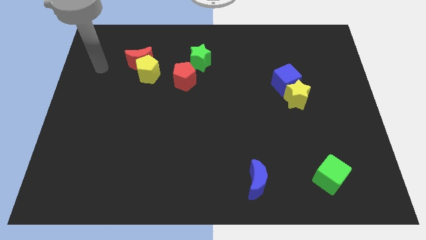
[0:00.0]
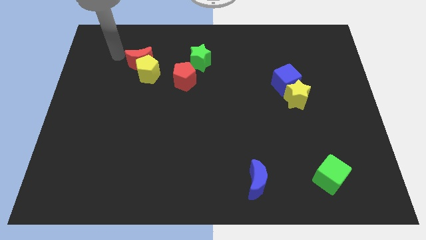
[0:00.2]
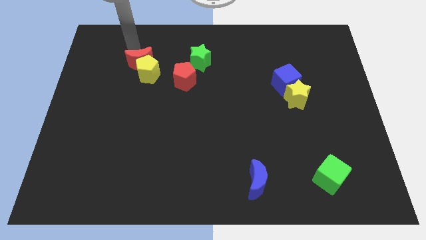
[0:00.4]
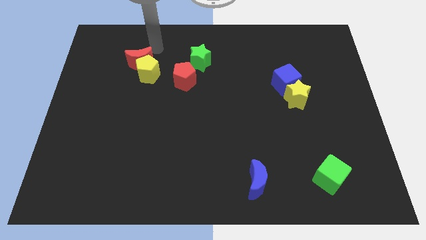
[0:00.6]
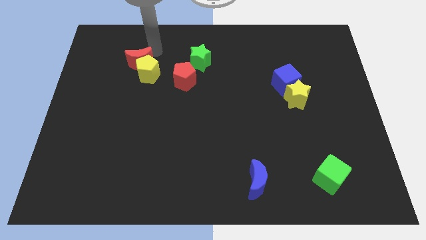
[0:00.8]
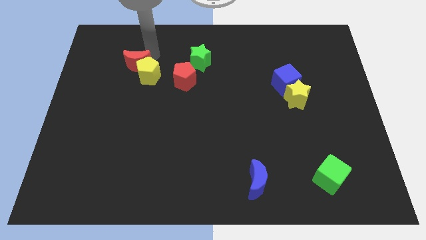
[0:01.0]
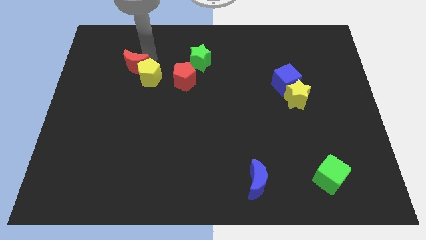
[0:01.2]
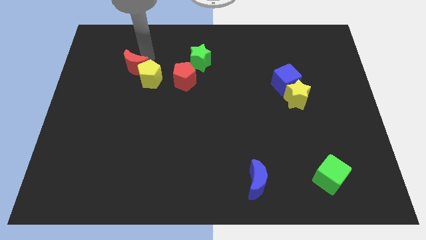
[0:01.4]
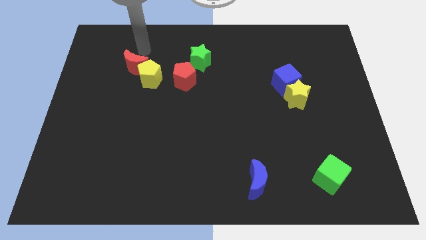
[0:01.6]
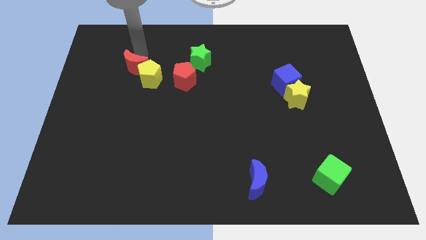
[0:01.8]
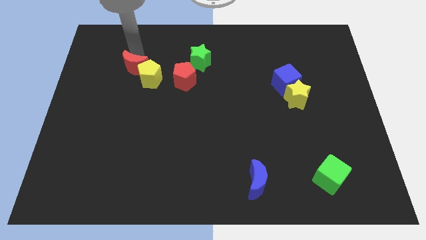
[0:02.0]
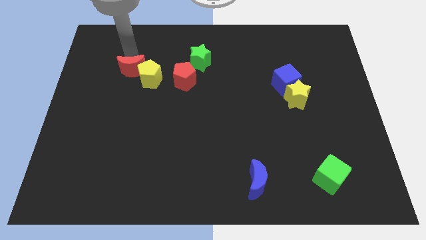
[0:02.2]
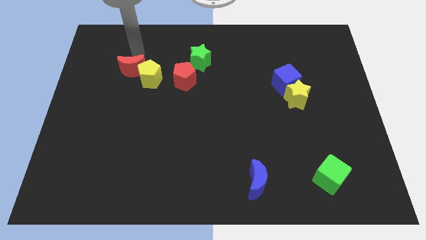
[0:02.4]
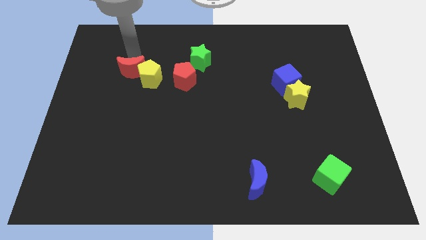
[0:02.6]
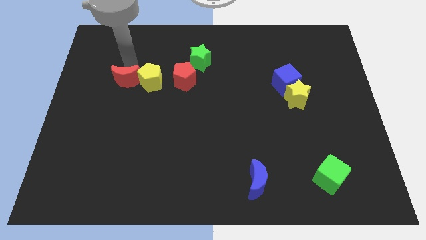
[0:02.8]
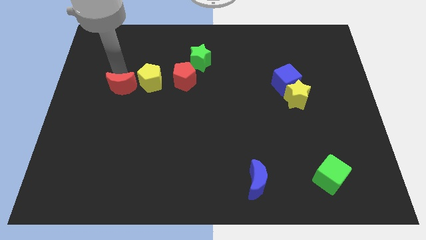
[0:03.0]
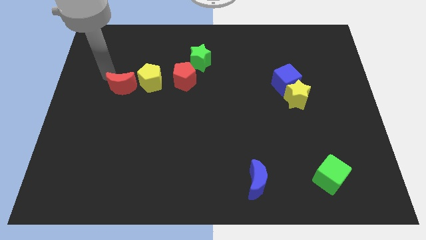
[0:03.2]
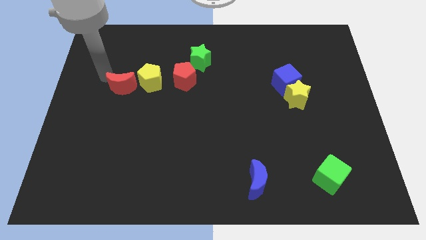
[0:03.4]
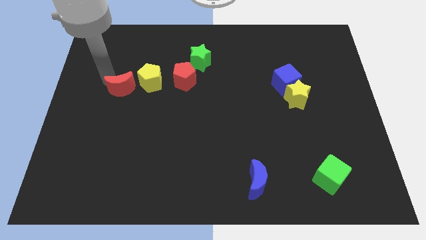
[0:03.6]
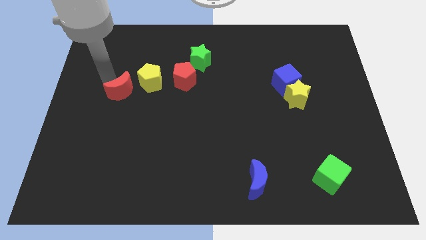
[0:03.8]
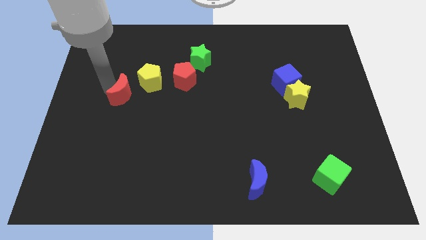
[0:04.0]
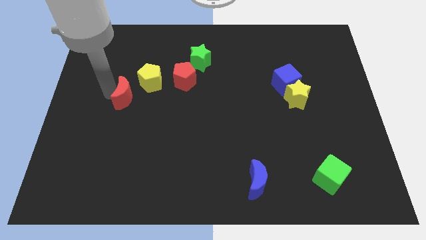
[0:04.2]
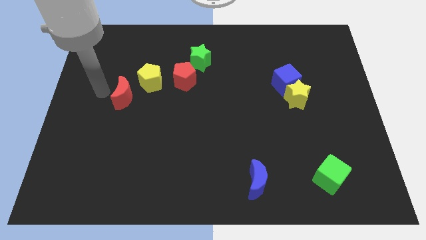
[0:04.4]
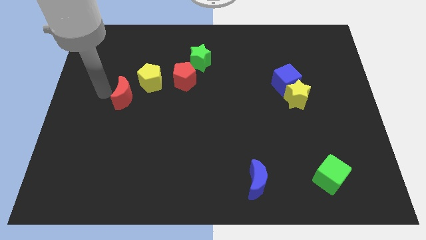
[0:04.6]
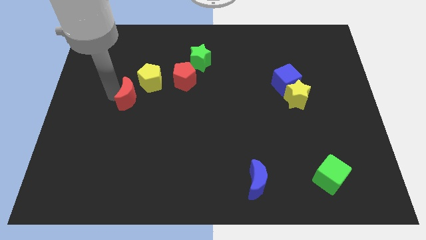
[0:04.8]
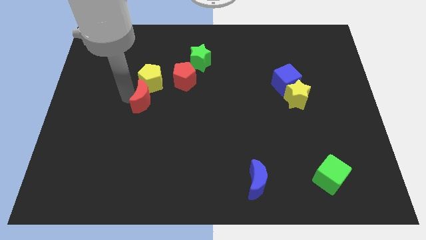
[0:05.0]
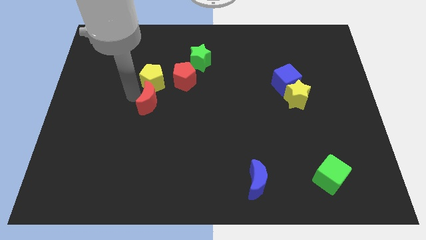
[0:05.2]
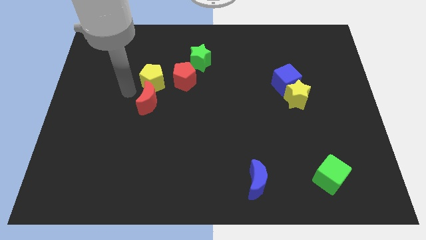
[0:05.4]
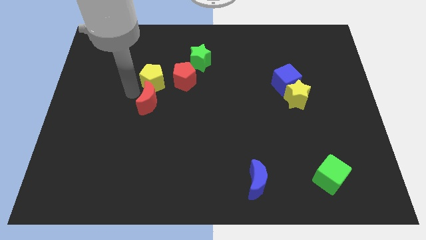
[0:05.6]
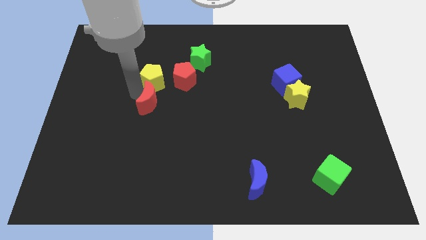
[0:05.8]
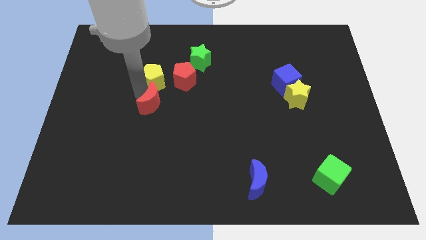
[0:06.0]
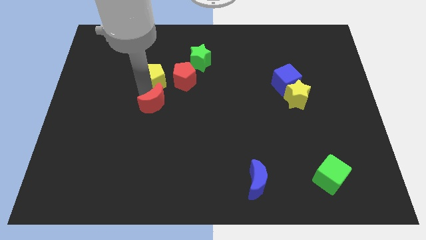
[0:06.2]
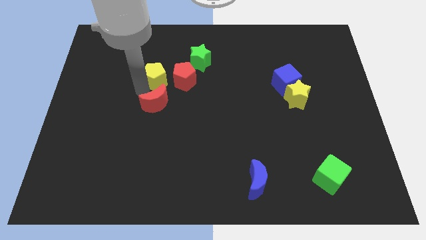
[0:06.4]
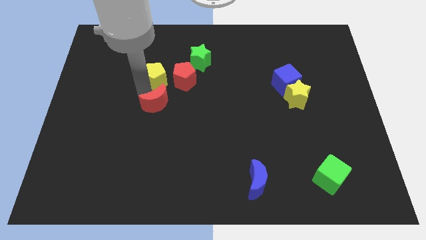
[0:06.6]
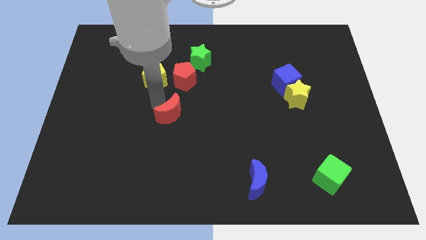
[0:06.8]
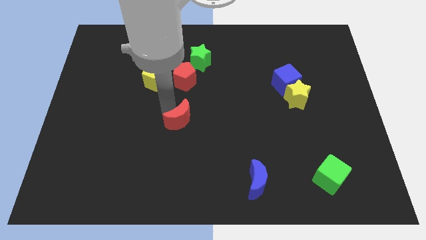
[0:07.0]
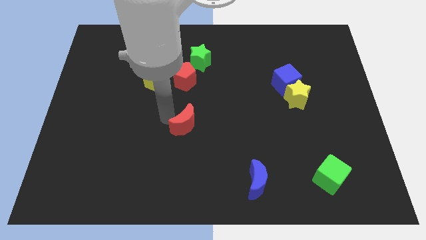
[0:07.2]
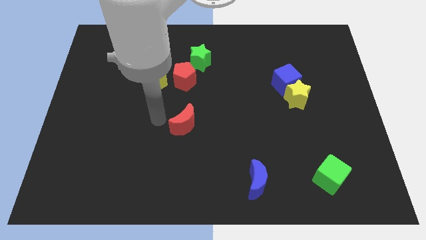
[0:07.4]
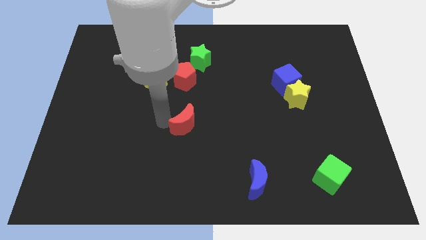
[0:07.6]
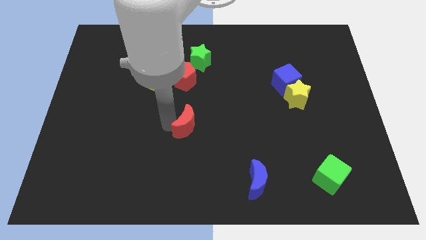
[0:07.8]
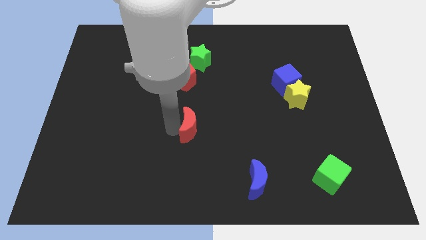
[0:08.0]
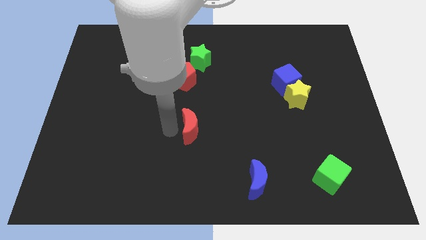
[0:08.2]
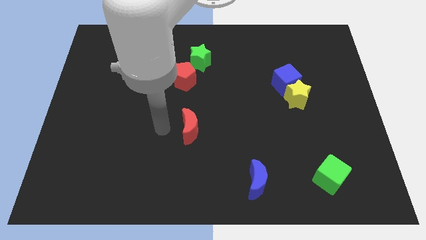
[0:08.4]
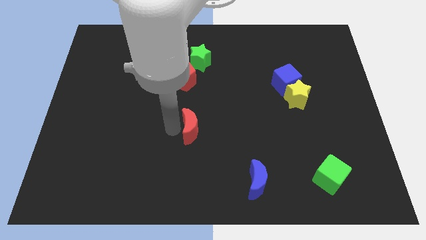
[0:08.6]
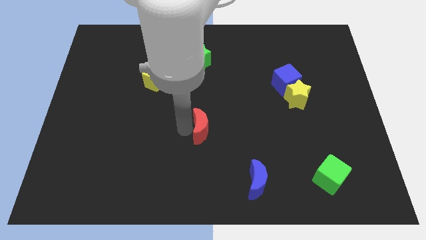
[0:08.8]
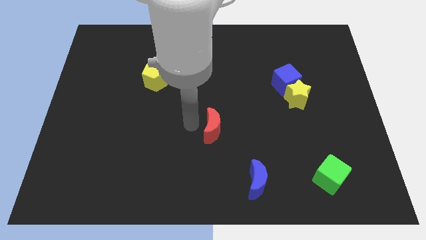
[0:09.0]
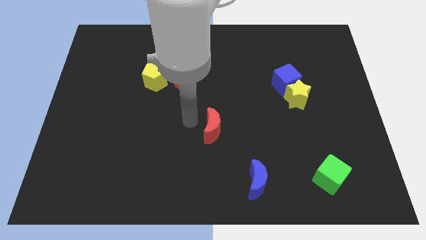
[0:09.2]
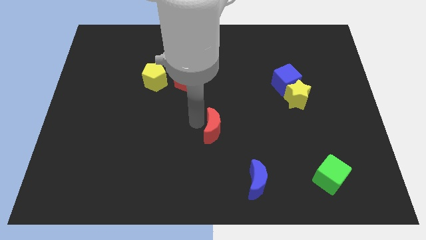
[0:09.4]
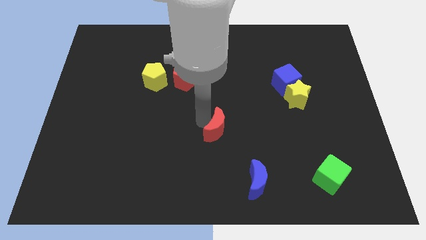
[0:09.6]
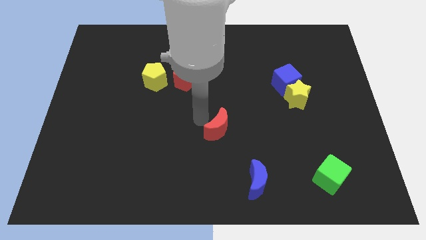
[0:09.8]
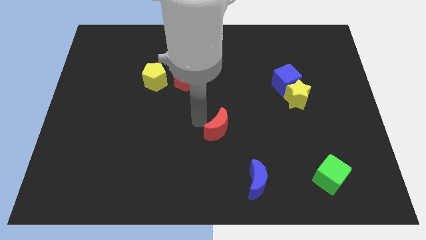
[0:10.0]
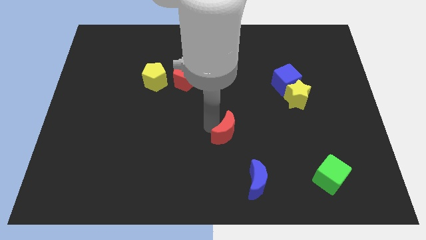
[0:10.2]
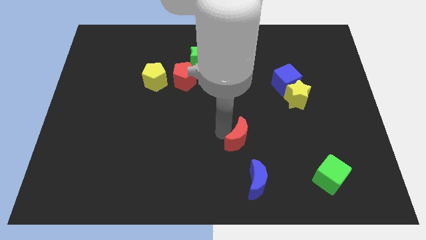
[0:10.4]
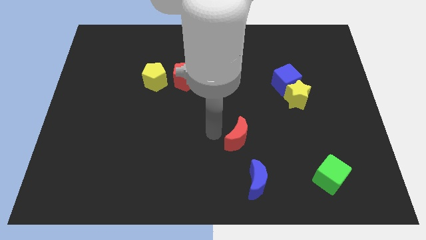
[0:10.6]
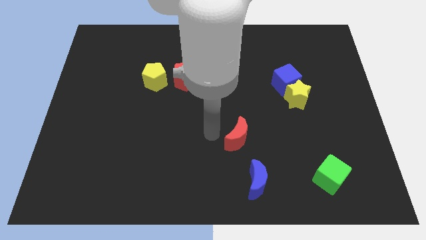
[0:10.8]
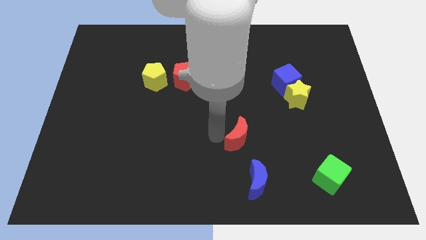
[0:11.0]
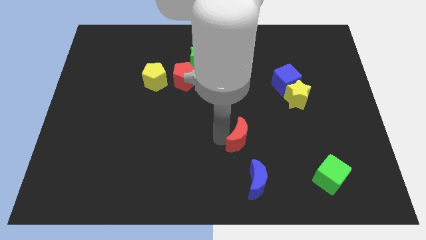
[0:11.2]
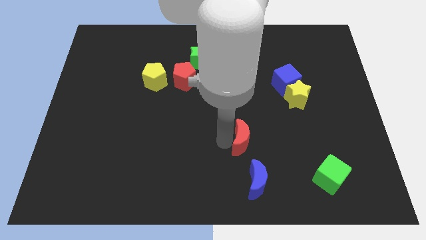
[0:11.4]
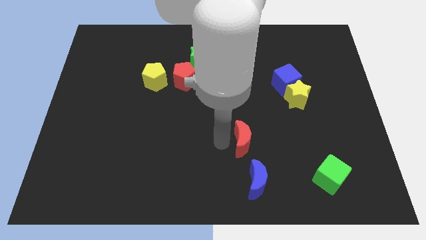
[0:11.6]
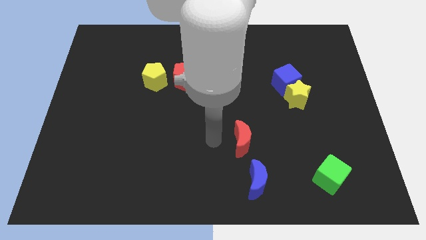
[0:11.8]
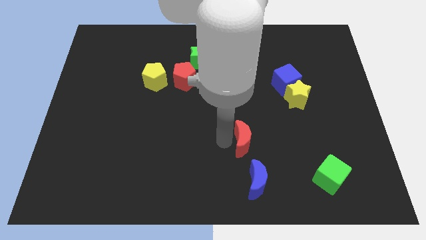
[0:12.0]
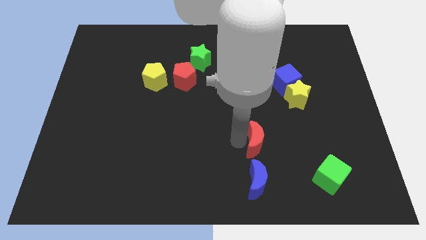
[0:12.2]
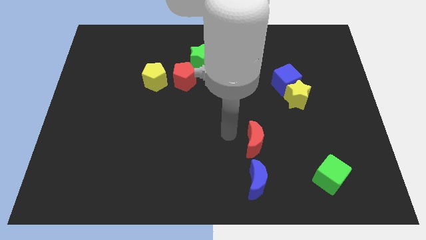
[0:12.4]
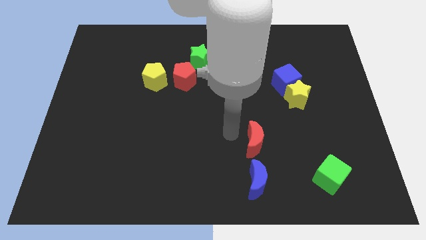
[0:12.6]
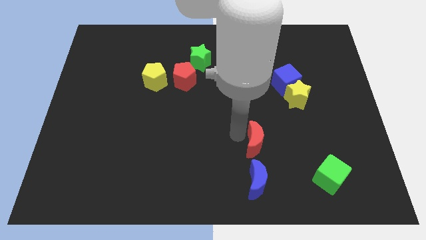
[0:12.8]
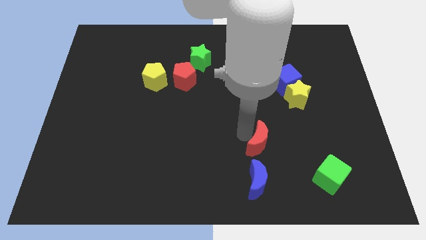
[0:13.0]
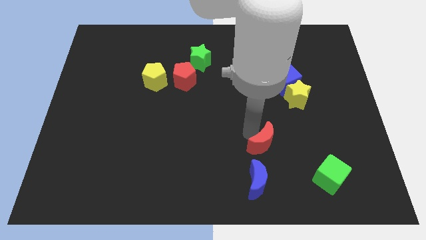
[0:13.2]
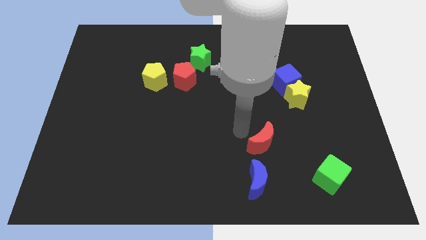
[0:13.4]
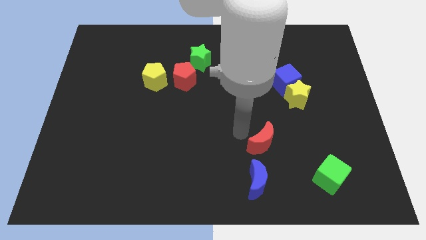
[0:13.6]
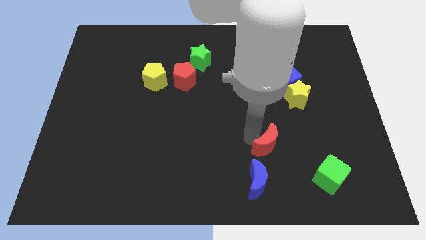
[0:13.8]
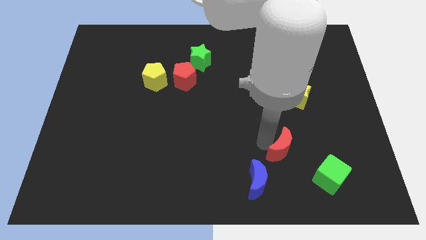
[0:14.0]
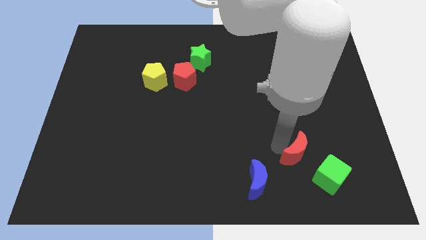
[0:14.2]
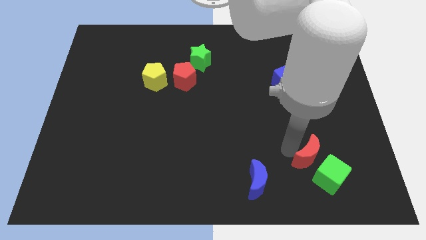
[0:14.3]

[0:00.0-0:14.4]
move the red moon to the green cube

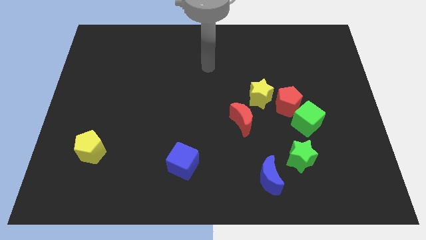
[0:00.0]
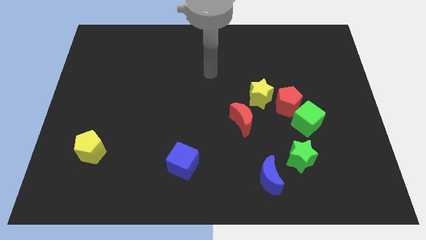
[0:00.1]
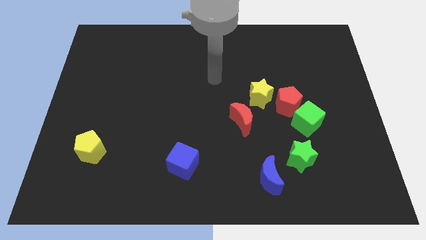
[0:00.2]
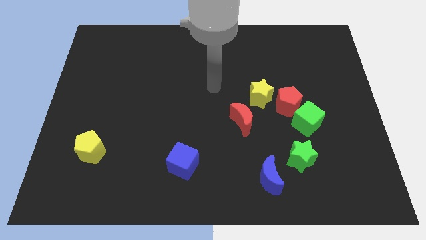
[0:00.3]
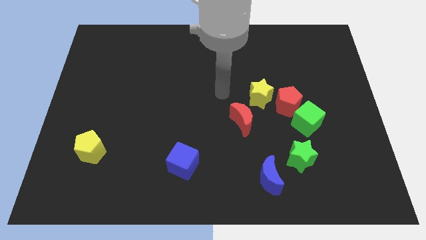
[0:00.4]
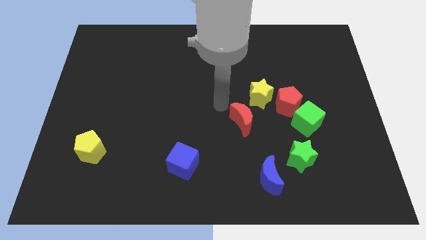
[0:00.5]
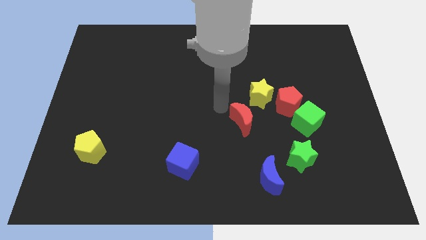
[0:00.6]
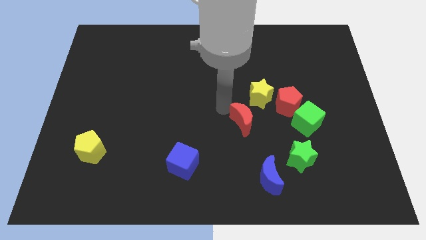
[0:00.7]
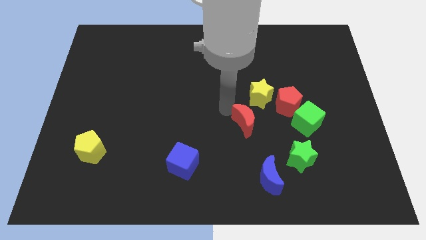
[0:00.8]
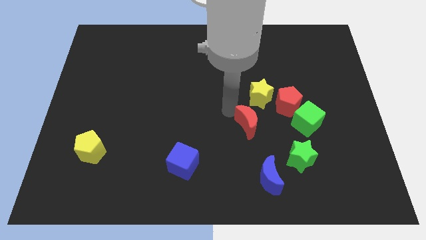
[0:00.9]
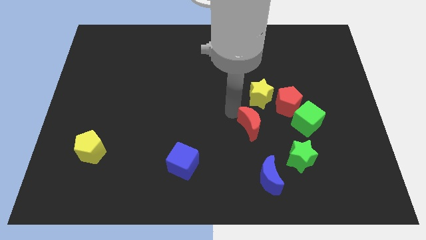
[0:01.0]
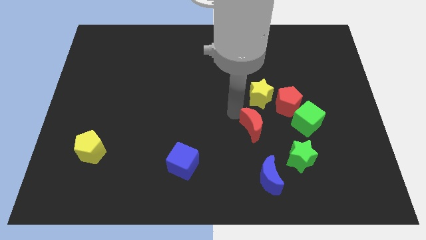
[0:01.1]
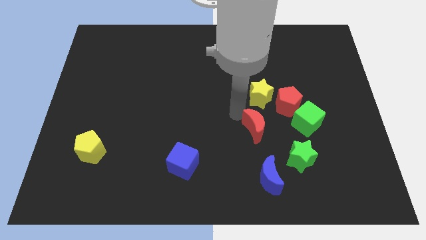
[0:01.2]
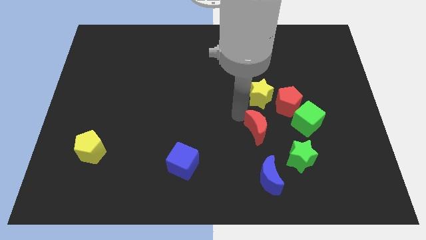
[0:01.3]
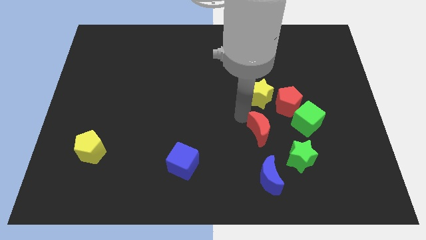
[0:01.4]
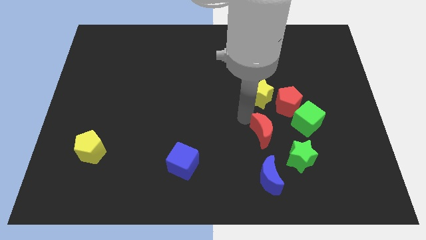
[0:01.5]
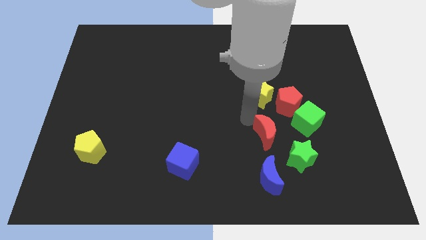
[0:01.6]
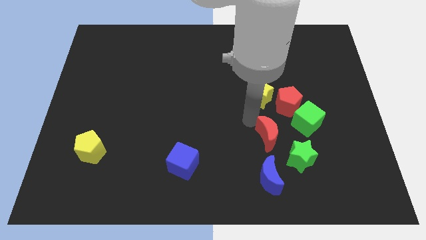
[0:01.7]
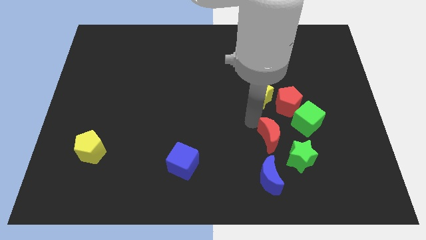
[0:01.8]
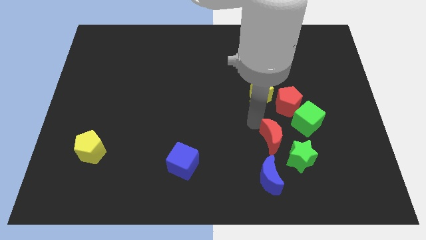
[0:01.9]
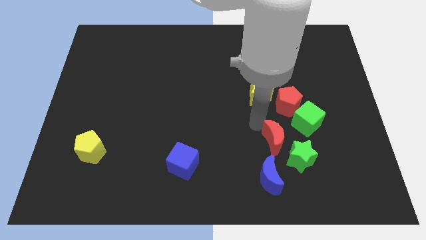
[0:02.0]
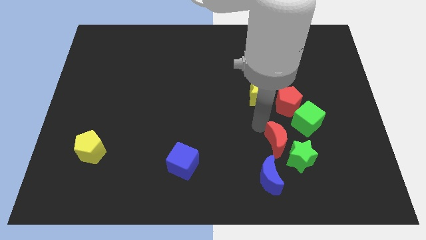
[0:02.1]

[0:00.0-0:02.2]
push the red moon close to the green star
